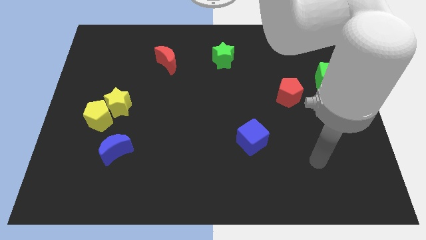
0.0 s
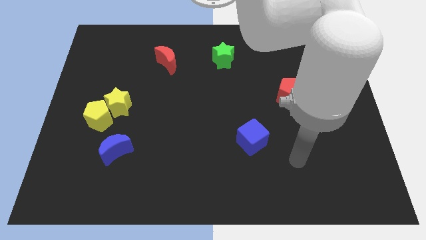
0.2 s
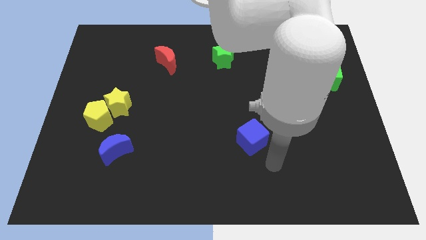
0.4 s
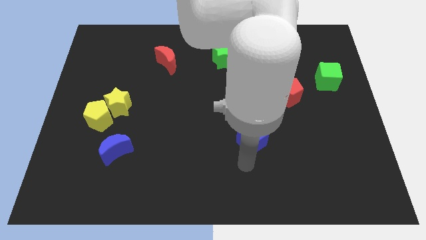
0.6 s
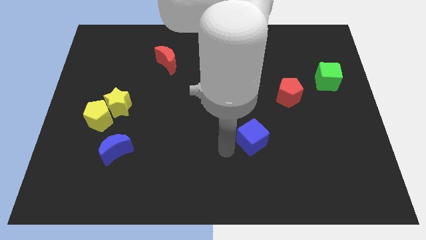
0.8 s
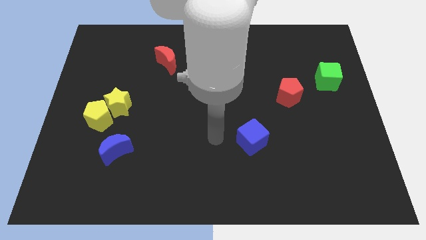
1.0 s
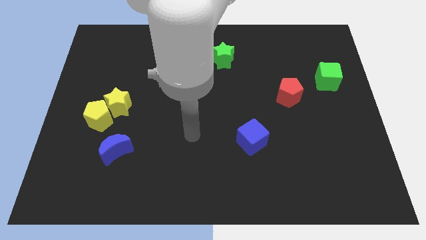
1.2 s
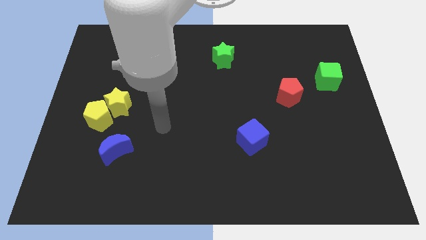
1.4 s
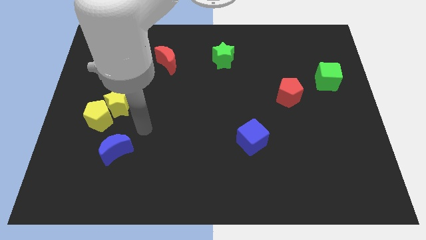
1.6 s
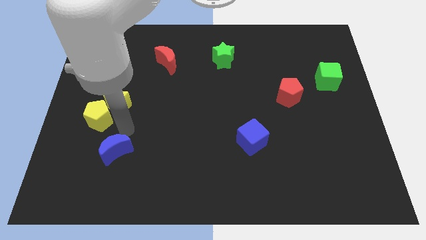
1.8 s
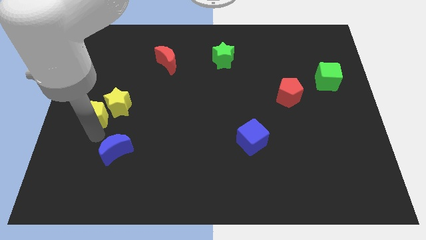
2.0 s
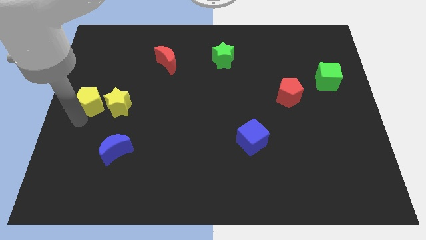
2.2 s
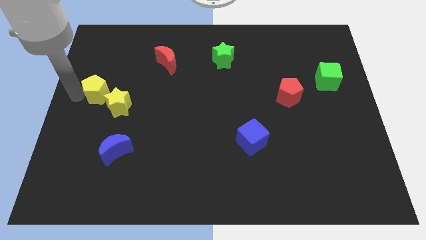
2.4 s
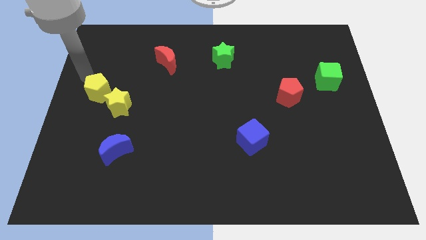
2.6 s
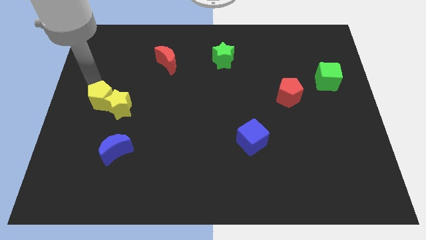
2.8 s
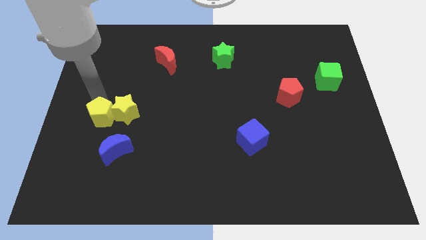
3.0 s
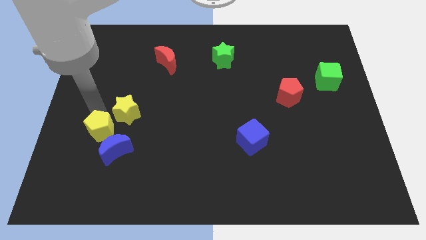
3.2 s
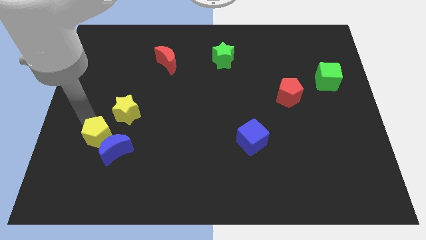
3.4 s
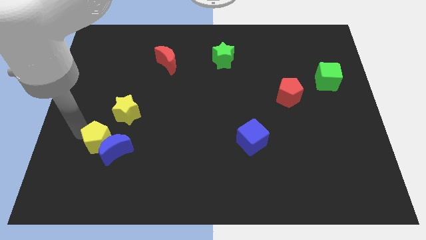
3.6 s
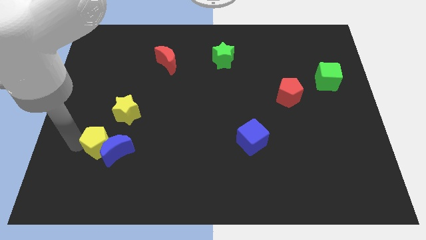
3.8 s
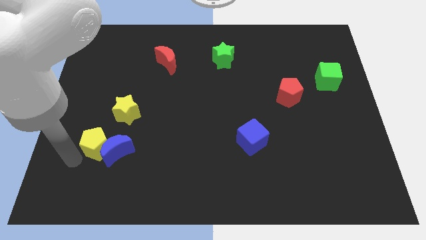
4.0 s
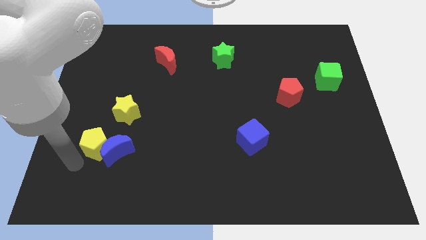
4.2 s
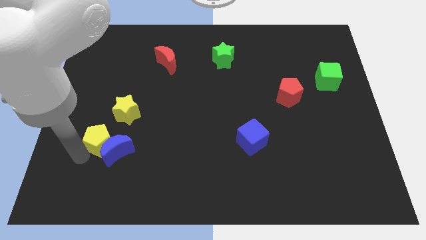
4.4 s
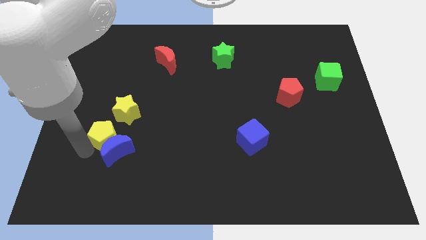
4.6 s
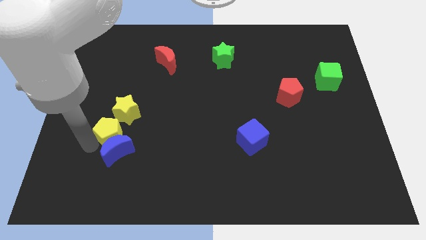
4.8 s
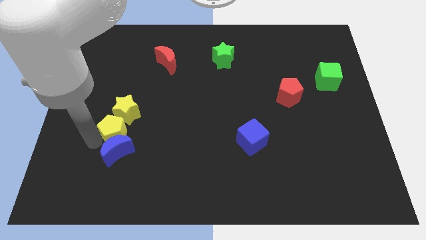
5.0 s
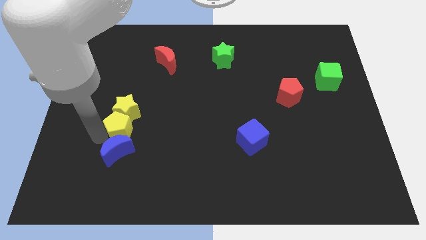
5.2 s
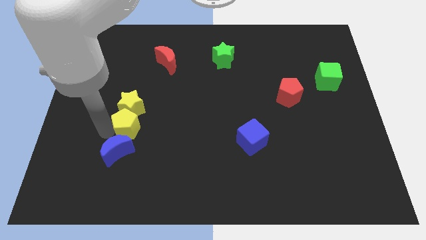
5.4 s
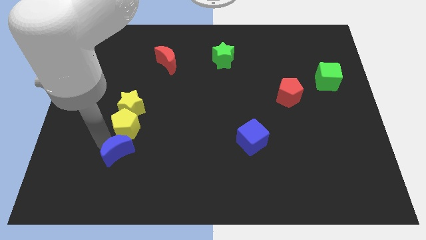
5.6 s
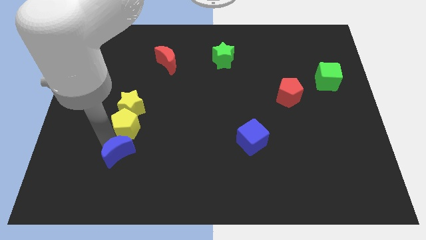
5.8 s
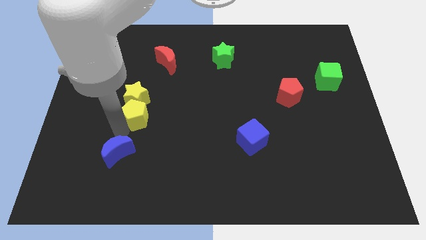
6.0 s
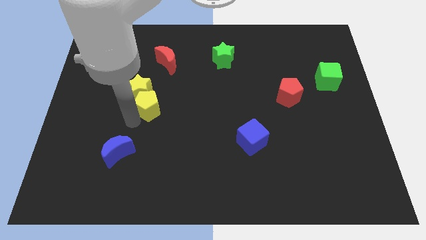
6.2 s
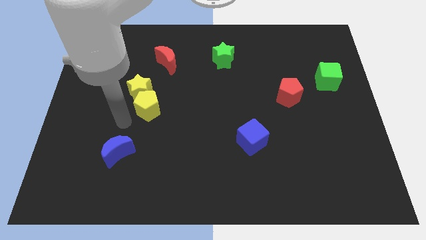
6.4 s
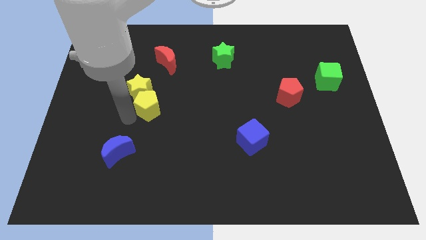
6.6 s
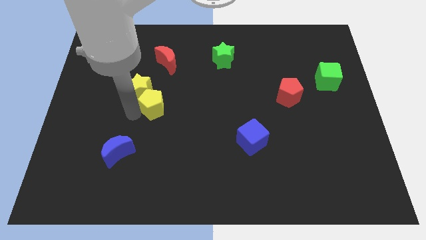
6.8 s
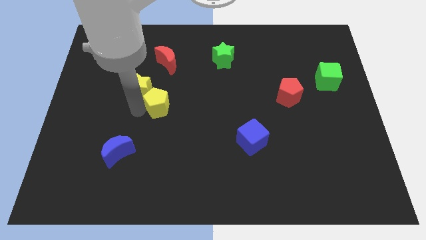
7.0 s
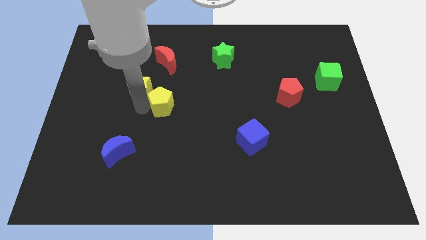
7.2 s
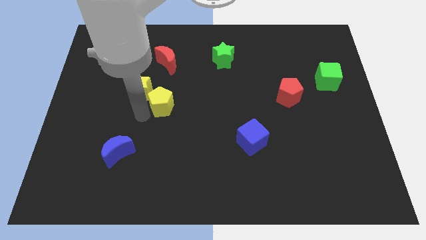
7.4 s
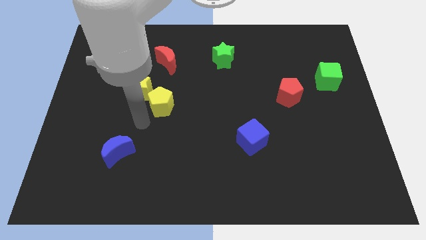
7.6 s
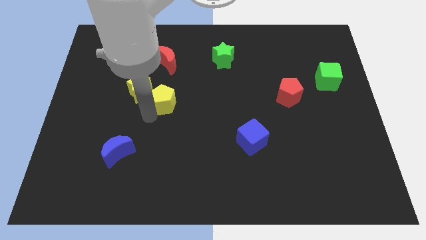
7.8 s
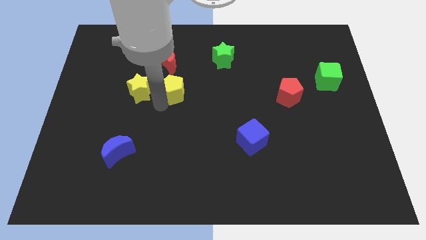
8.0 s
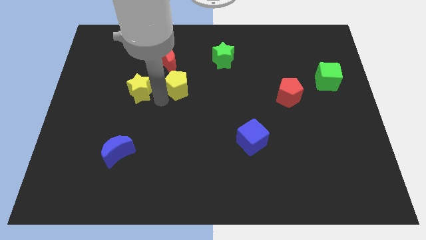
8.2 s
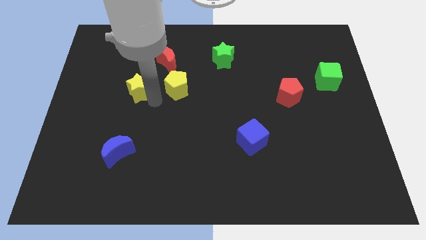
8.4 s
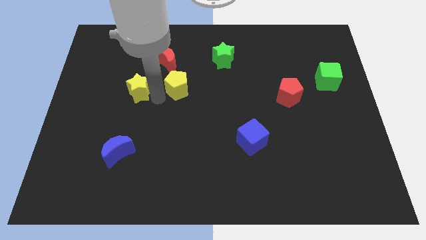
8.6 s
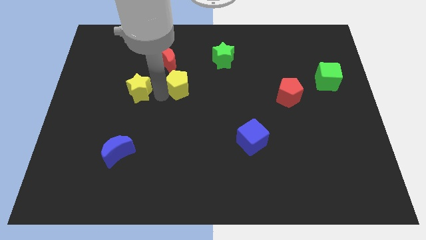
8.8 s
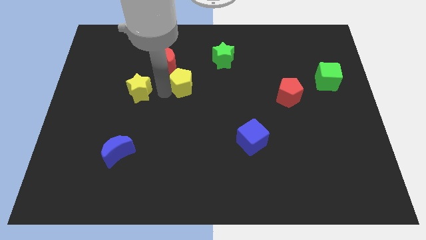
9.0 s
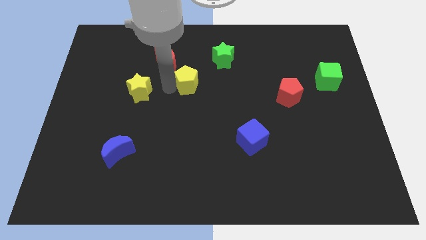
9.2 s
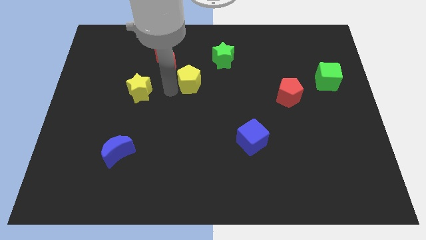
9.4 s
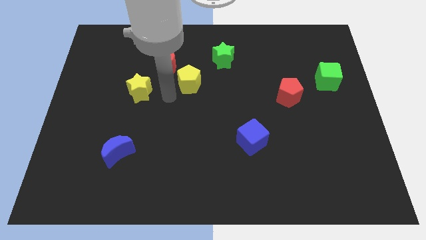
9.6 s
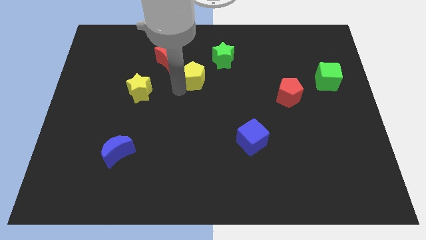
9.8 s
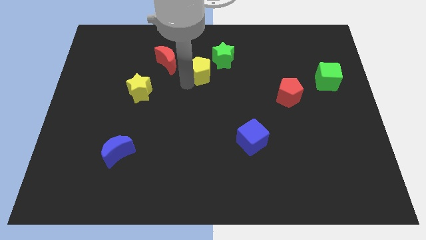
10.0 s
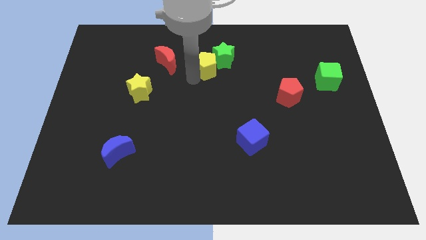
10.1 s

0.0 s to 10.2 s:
push the yellow pentagon to the green star

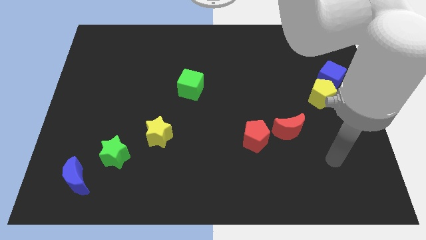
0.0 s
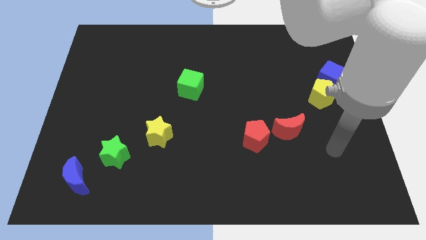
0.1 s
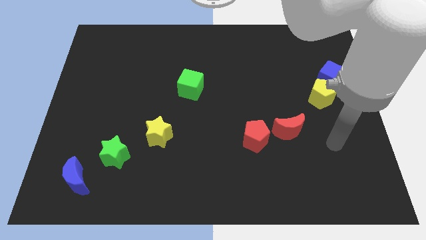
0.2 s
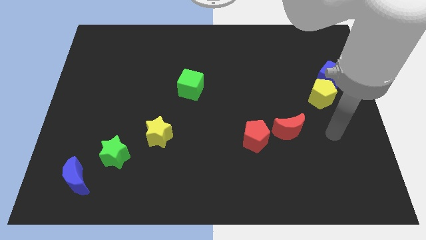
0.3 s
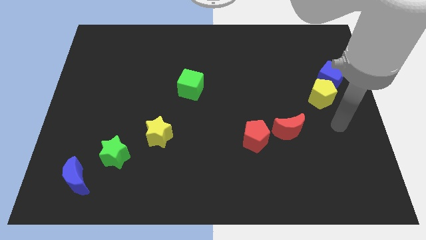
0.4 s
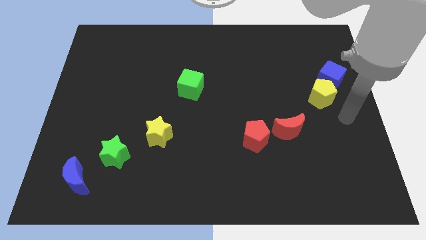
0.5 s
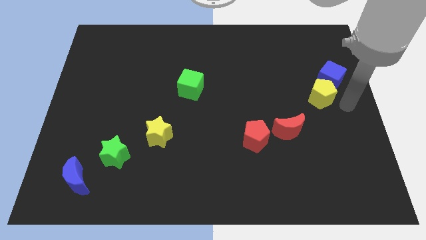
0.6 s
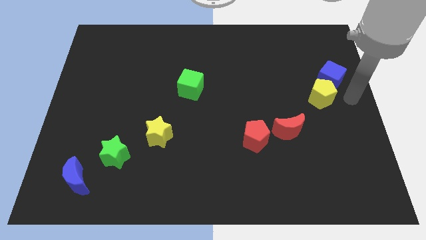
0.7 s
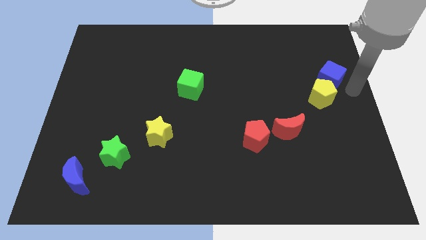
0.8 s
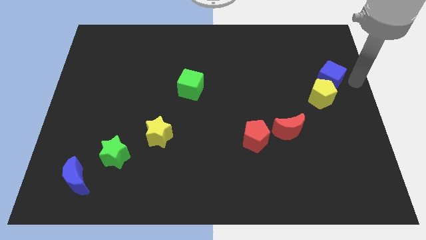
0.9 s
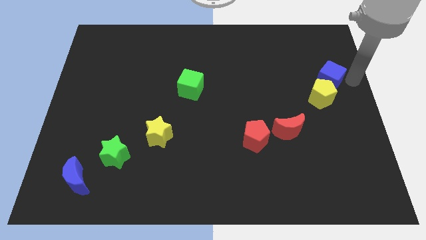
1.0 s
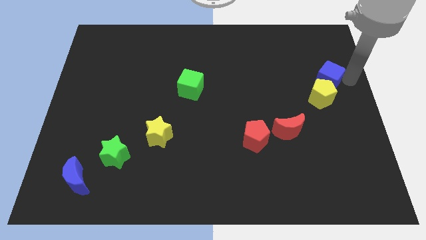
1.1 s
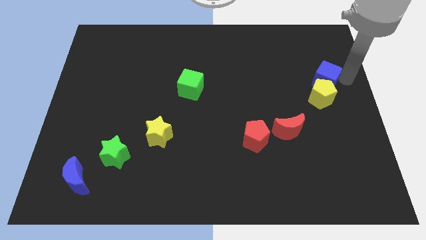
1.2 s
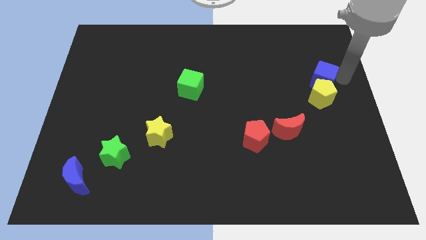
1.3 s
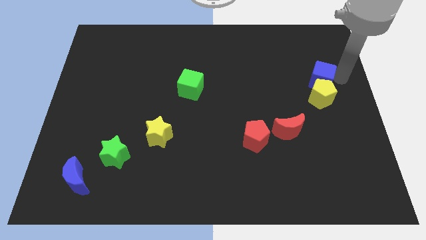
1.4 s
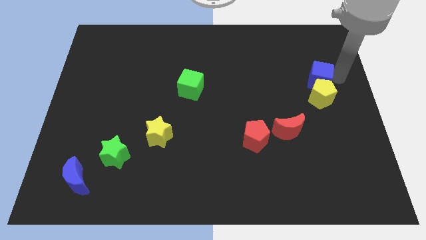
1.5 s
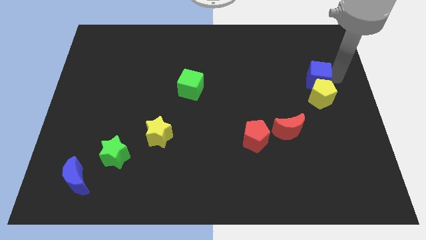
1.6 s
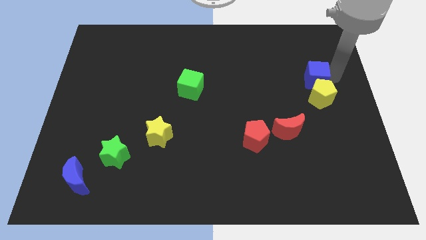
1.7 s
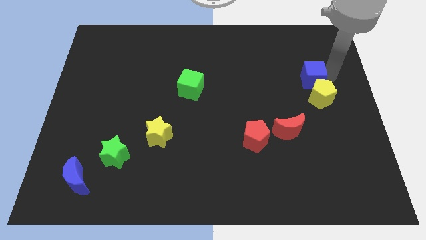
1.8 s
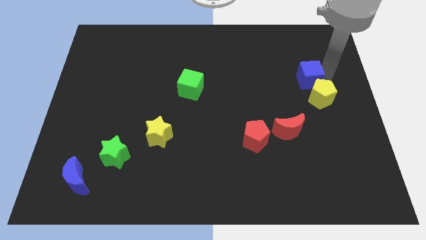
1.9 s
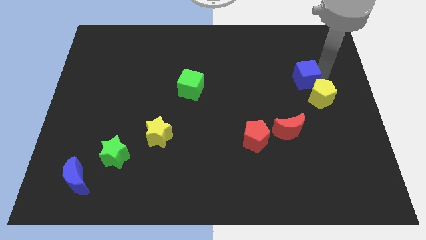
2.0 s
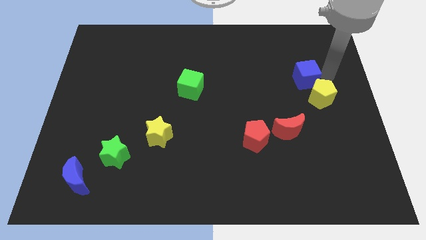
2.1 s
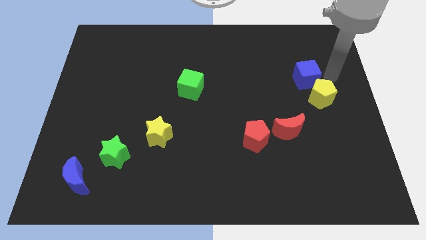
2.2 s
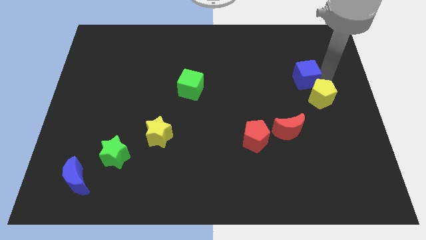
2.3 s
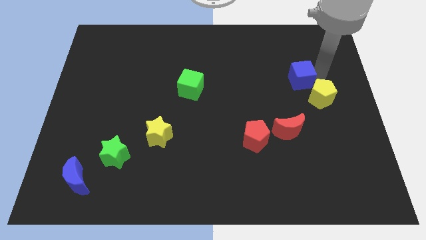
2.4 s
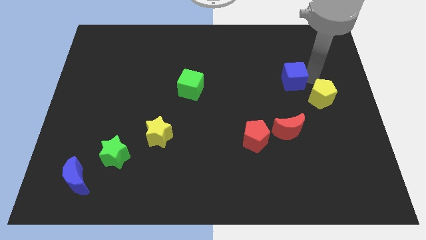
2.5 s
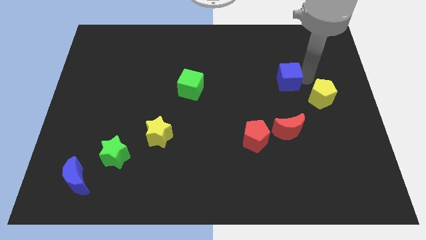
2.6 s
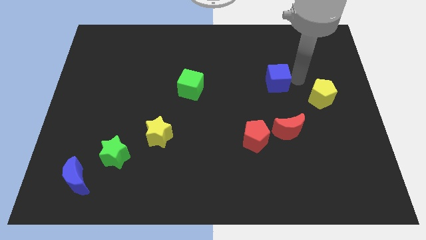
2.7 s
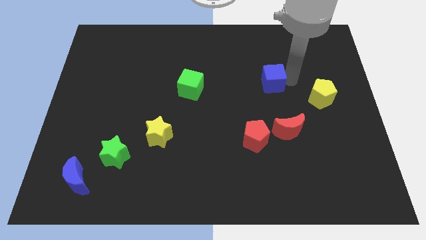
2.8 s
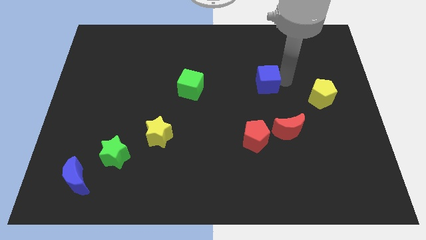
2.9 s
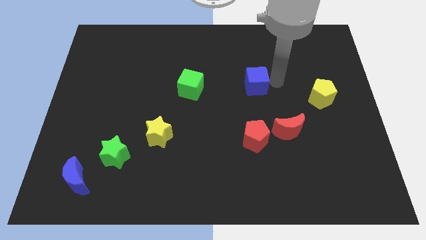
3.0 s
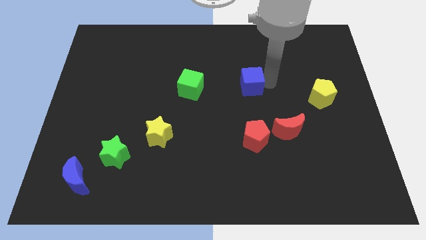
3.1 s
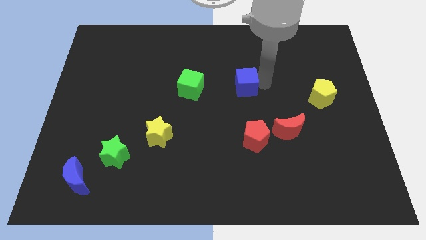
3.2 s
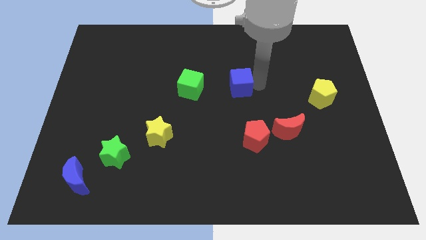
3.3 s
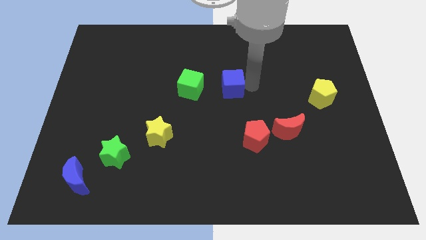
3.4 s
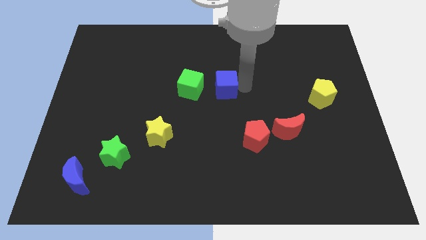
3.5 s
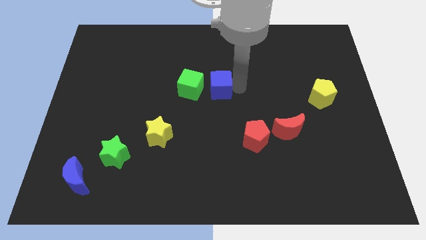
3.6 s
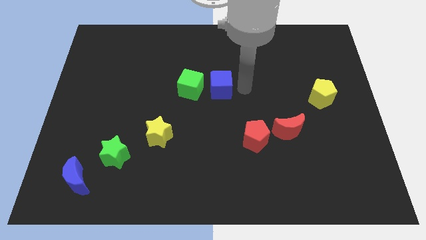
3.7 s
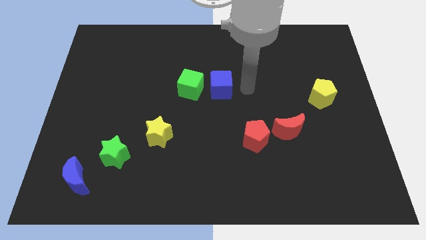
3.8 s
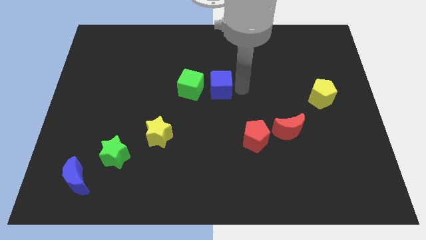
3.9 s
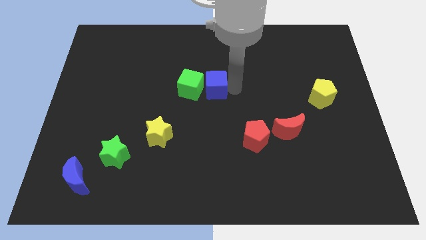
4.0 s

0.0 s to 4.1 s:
move the blue cube close to the green cube
